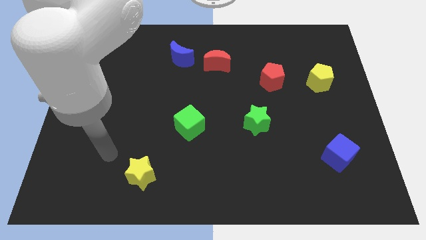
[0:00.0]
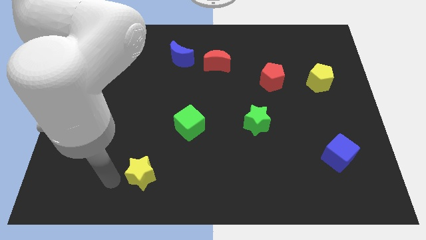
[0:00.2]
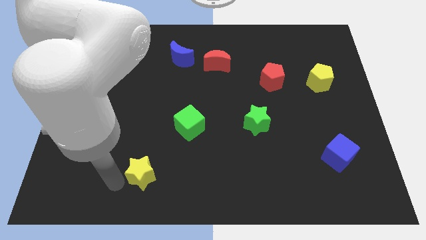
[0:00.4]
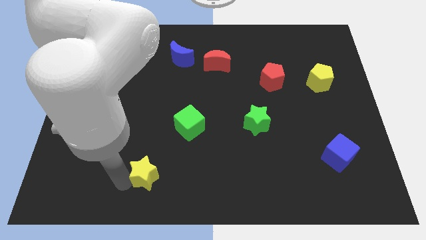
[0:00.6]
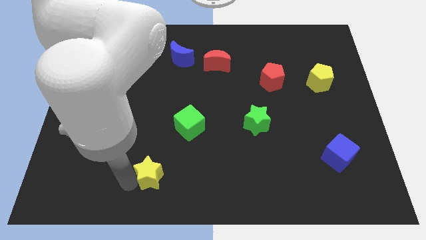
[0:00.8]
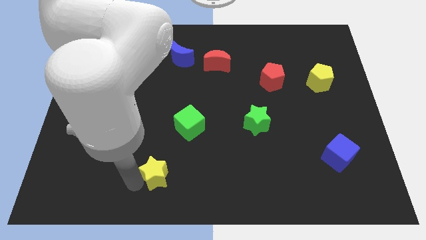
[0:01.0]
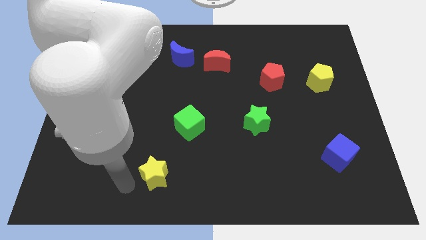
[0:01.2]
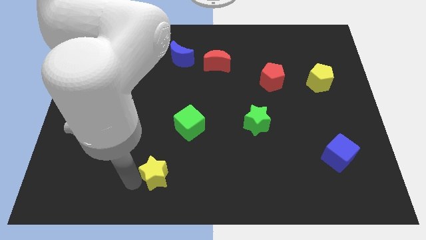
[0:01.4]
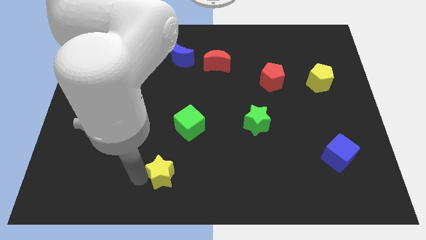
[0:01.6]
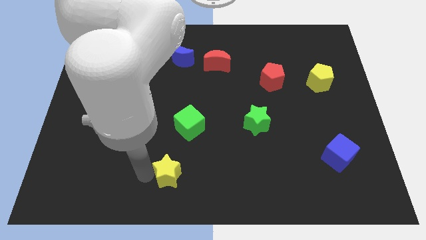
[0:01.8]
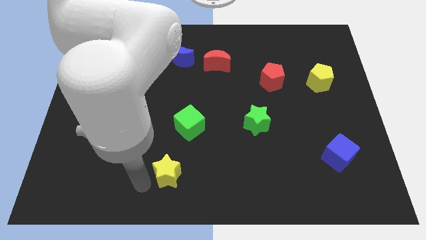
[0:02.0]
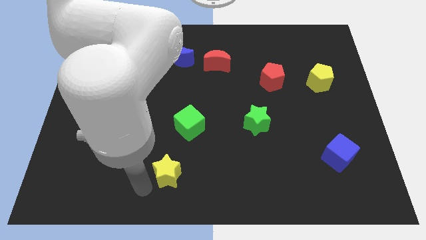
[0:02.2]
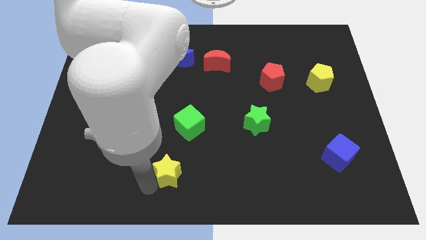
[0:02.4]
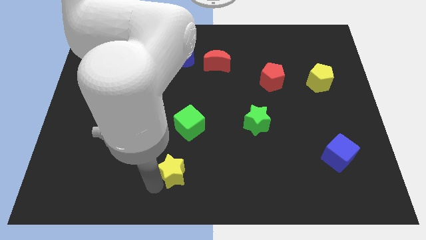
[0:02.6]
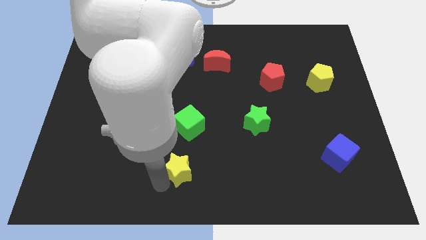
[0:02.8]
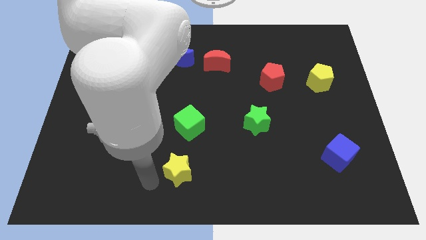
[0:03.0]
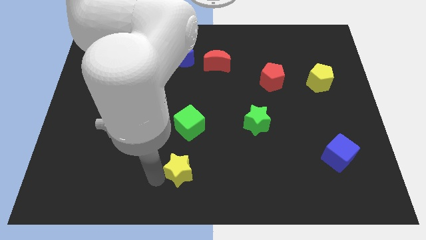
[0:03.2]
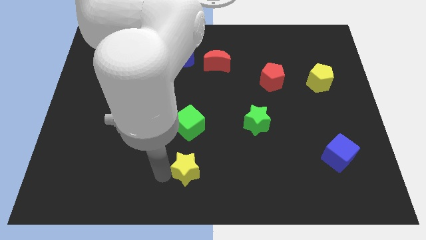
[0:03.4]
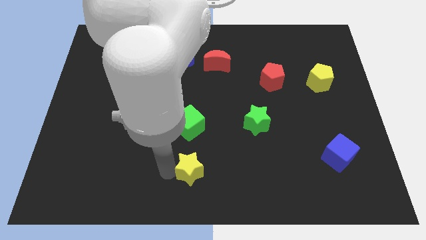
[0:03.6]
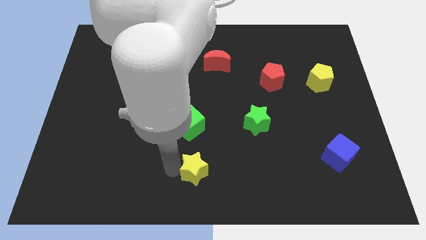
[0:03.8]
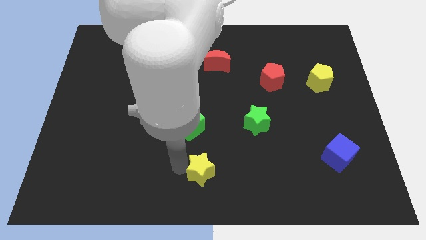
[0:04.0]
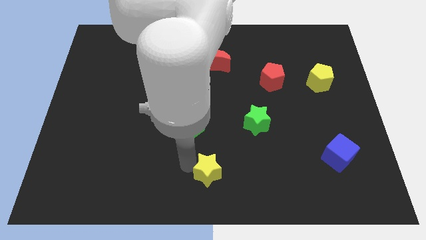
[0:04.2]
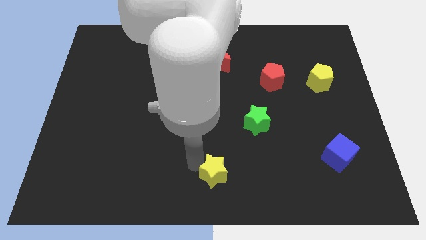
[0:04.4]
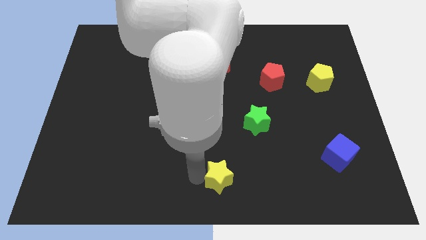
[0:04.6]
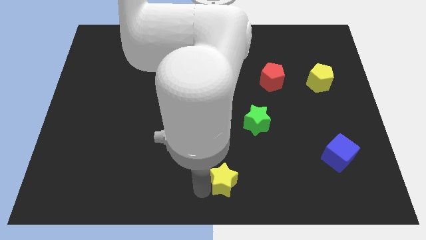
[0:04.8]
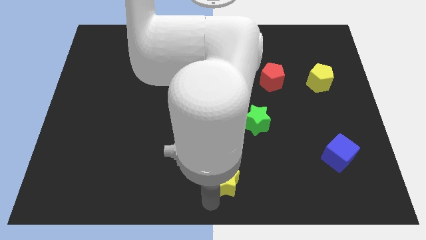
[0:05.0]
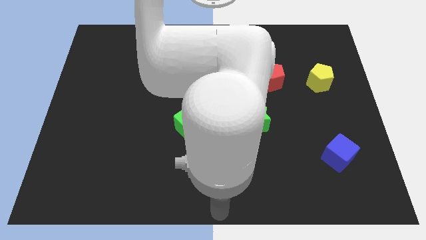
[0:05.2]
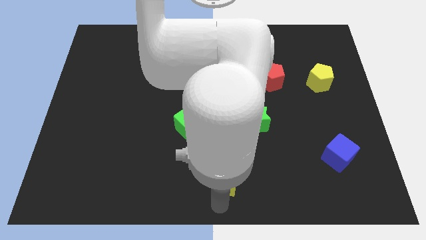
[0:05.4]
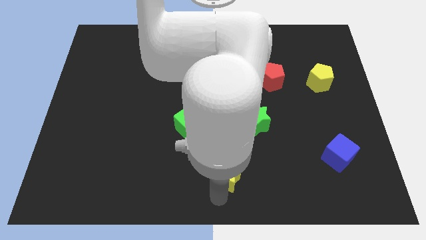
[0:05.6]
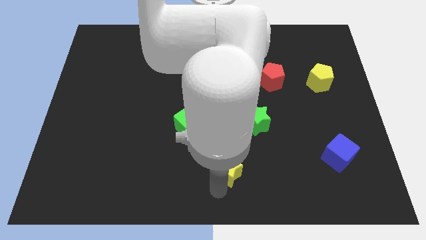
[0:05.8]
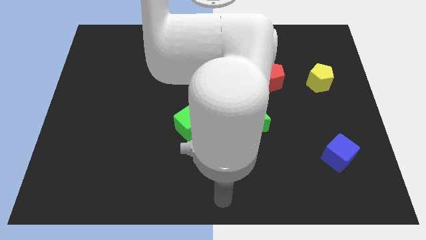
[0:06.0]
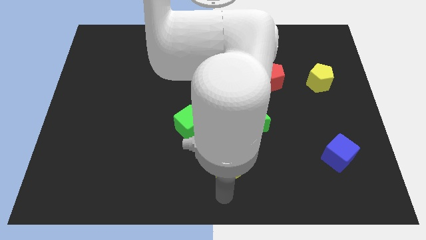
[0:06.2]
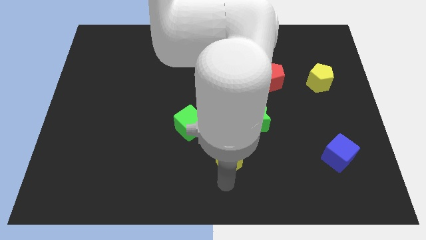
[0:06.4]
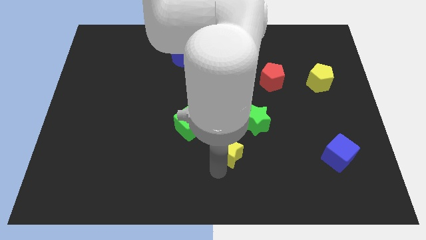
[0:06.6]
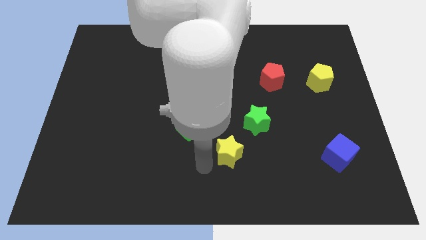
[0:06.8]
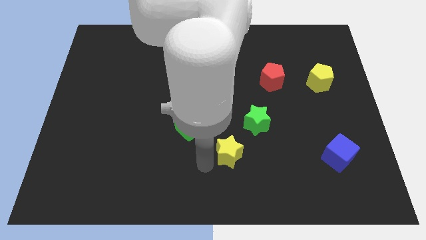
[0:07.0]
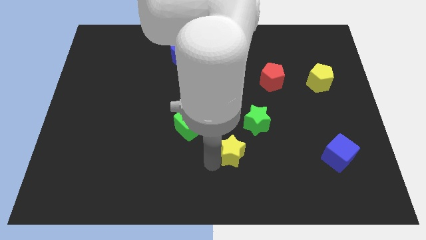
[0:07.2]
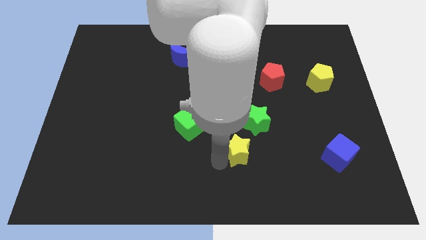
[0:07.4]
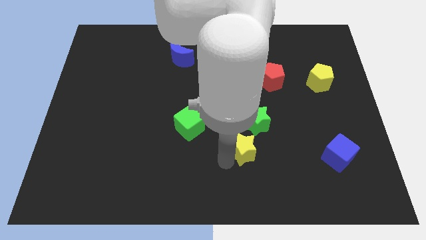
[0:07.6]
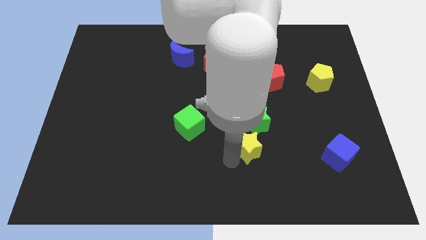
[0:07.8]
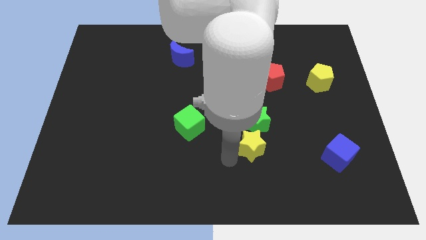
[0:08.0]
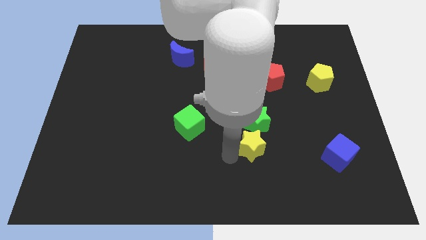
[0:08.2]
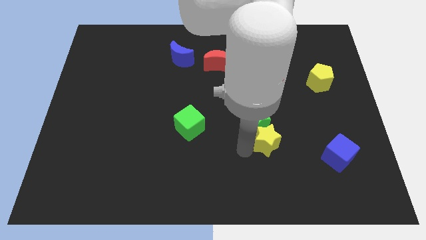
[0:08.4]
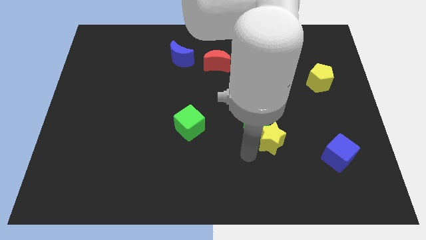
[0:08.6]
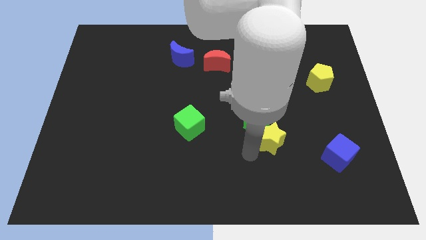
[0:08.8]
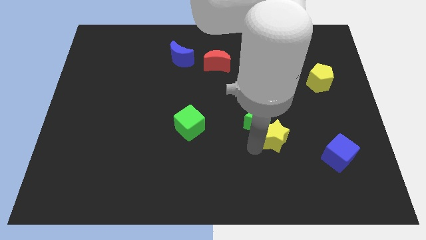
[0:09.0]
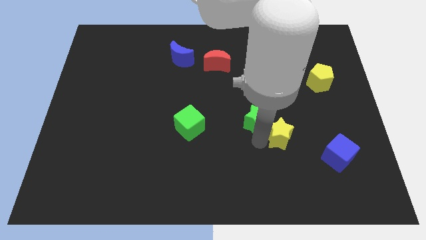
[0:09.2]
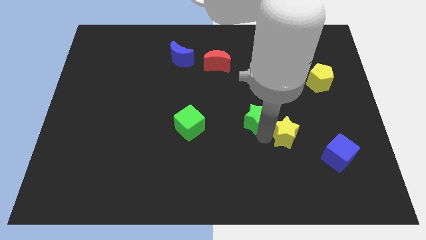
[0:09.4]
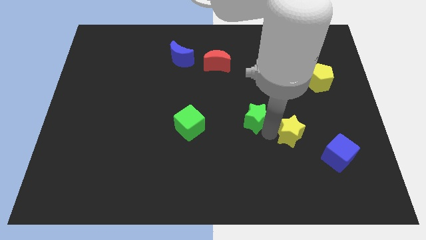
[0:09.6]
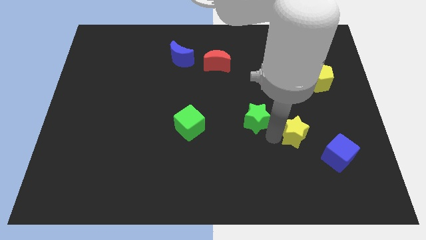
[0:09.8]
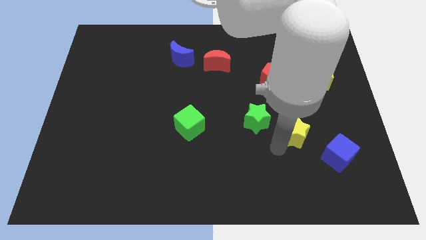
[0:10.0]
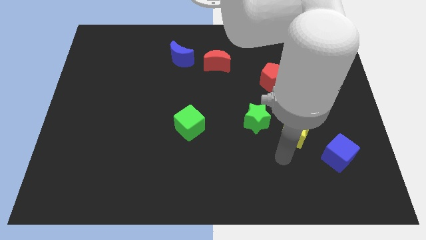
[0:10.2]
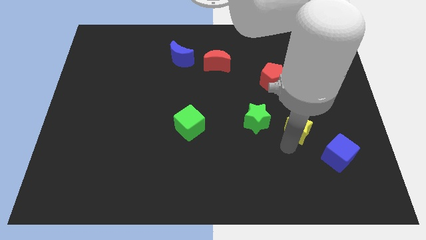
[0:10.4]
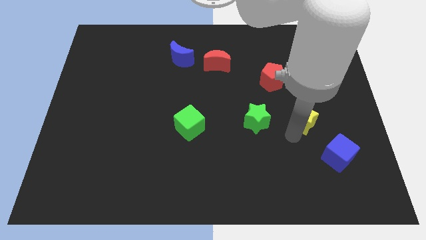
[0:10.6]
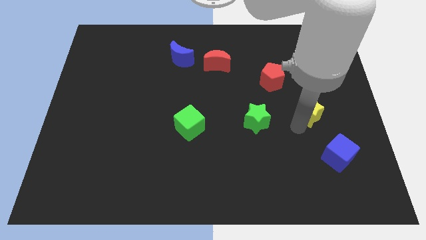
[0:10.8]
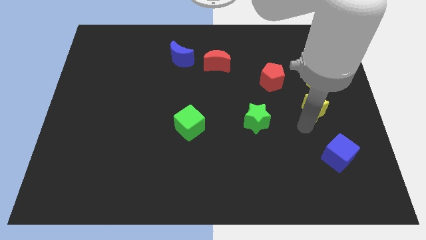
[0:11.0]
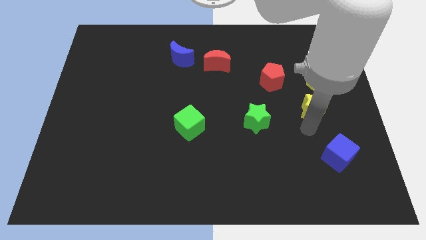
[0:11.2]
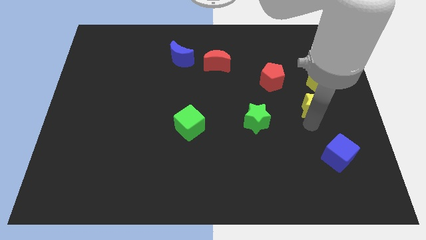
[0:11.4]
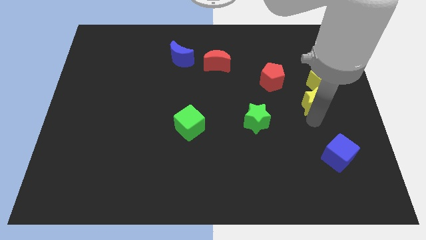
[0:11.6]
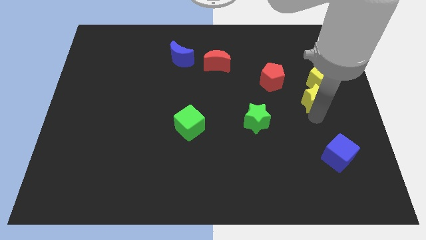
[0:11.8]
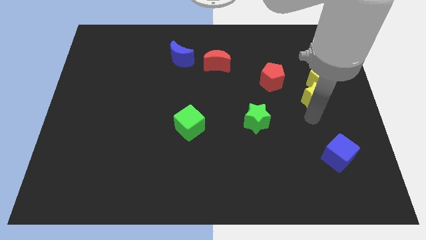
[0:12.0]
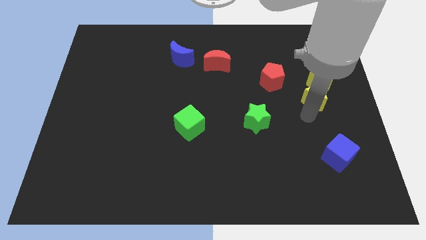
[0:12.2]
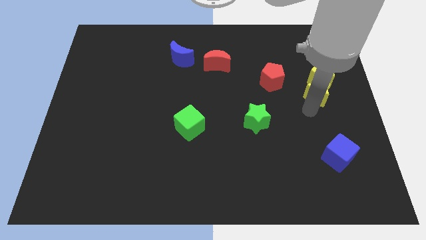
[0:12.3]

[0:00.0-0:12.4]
put the yellow star towards the yellow pentagon

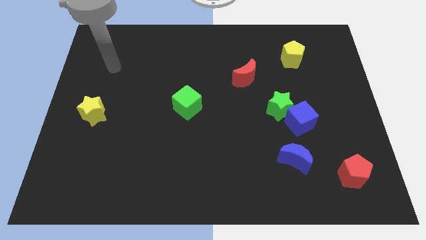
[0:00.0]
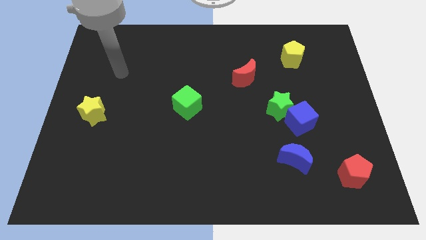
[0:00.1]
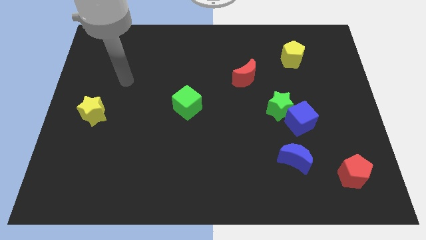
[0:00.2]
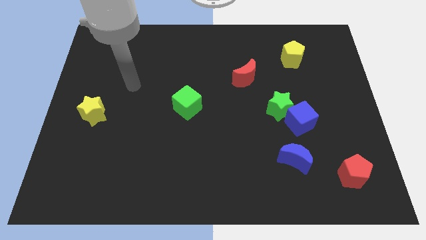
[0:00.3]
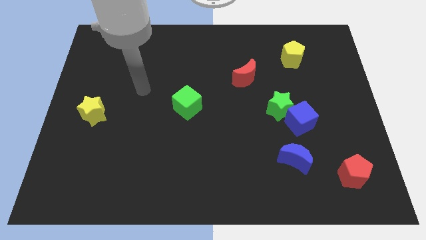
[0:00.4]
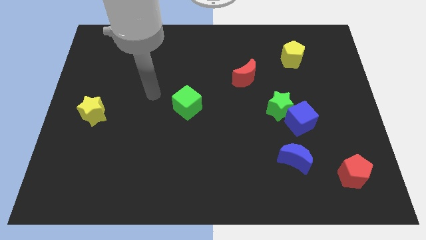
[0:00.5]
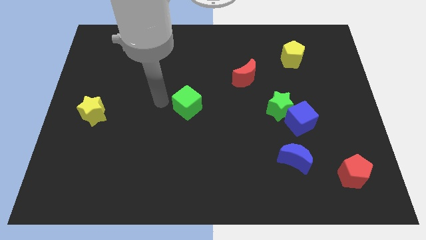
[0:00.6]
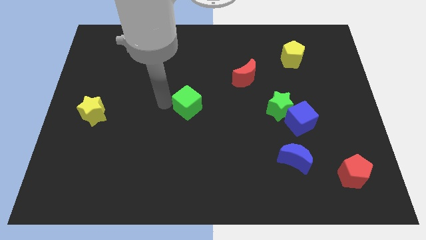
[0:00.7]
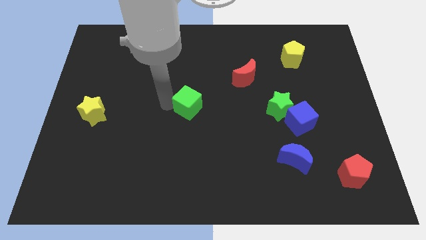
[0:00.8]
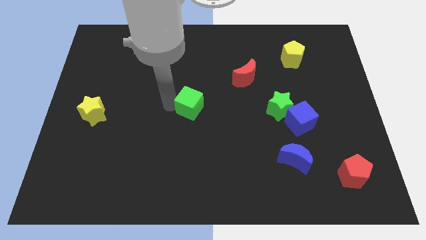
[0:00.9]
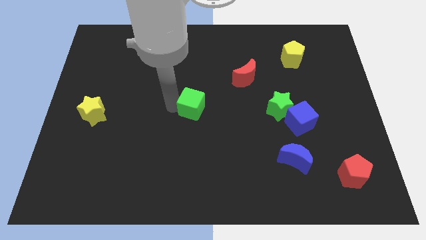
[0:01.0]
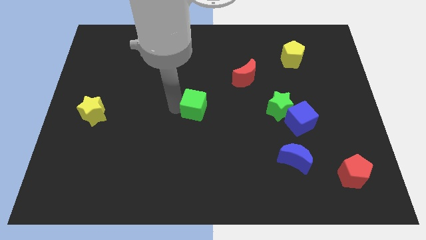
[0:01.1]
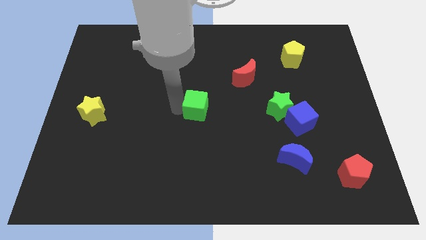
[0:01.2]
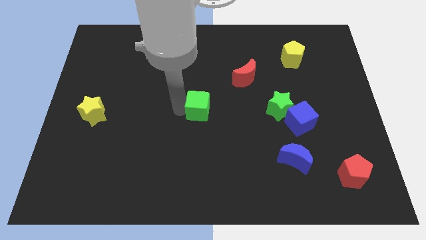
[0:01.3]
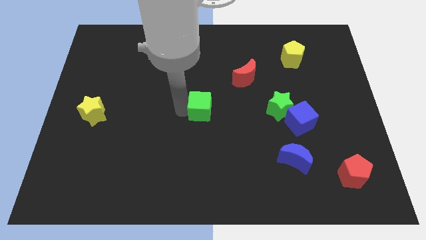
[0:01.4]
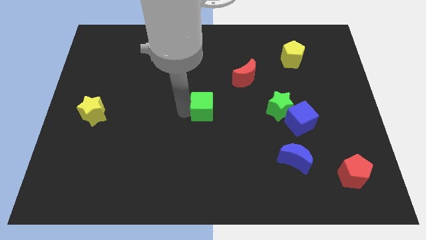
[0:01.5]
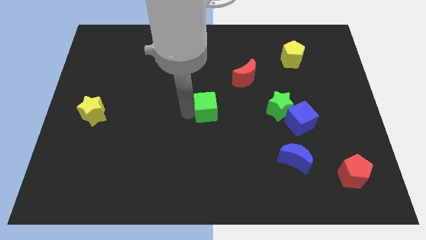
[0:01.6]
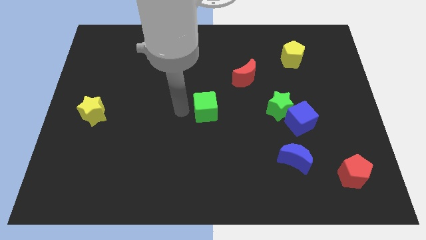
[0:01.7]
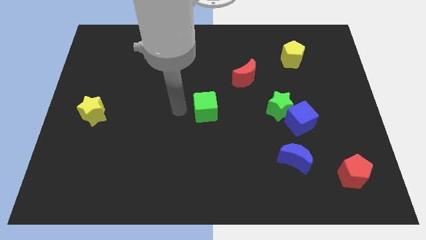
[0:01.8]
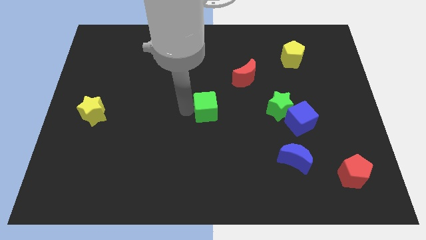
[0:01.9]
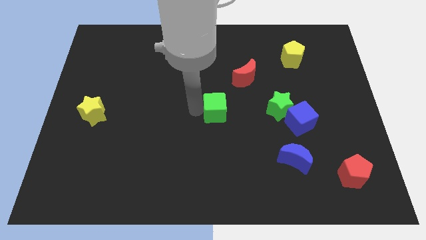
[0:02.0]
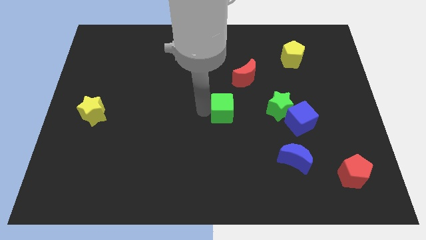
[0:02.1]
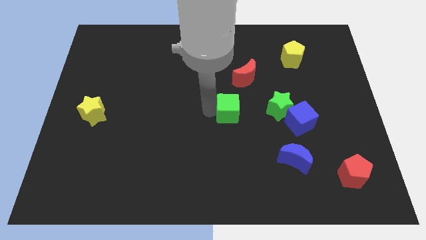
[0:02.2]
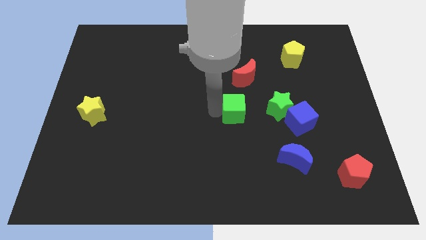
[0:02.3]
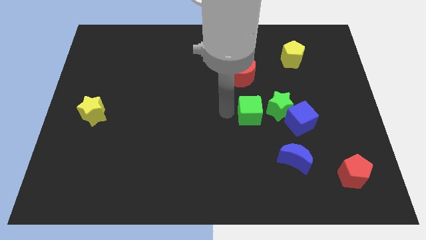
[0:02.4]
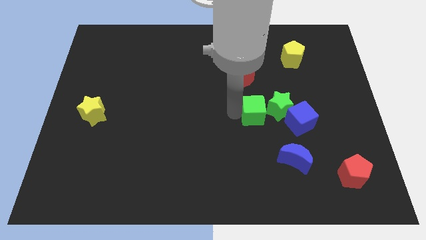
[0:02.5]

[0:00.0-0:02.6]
slide the green cube next to the green star
